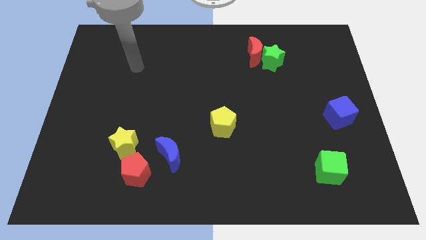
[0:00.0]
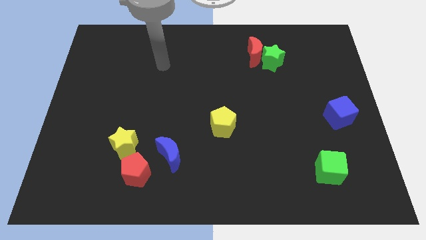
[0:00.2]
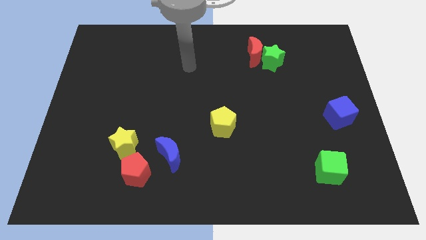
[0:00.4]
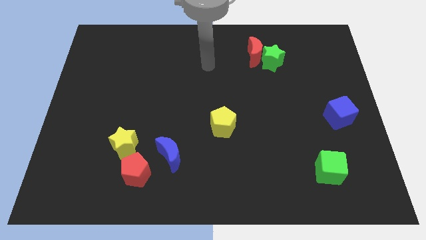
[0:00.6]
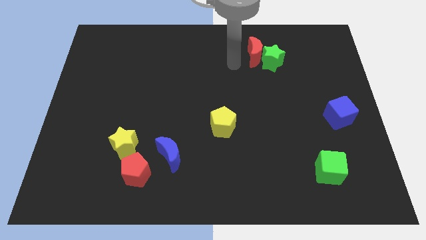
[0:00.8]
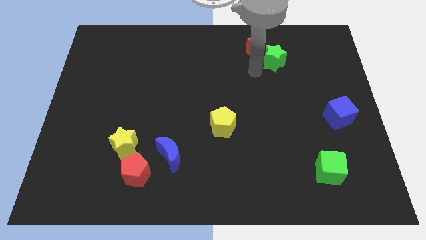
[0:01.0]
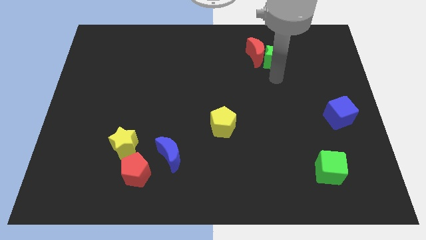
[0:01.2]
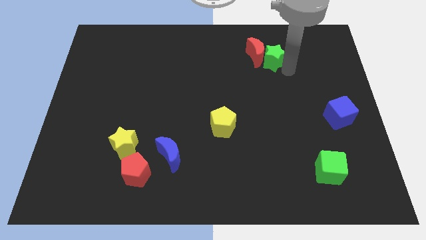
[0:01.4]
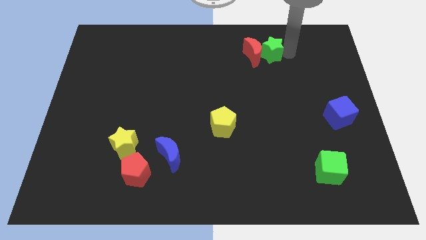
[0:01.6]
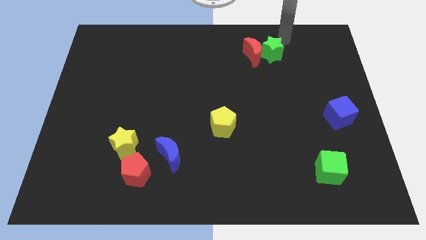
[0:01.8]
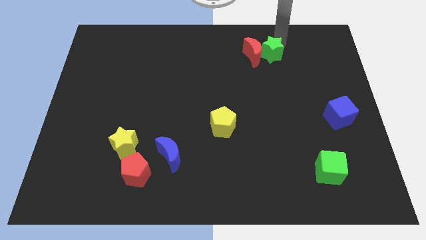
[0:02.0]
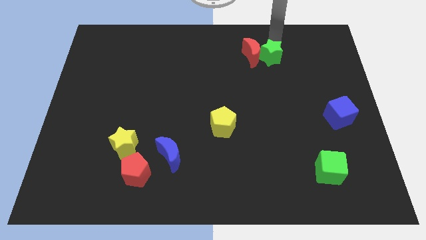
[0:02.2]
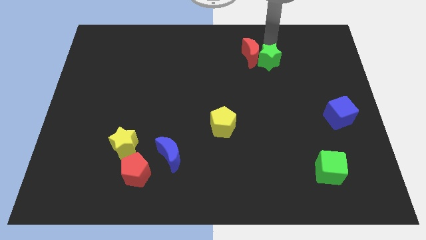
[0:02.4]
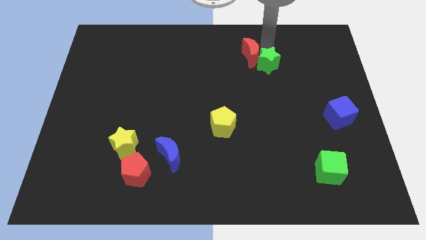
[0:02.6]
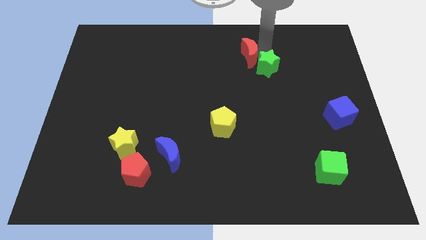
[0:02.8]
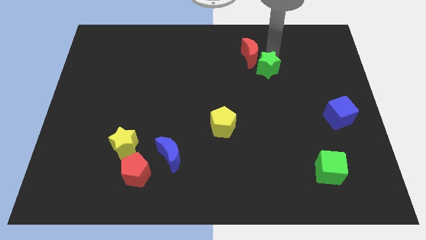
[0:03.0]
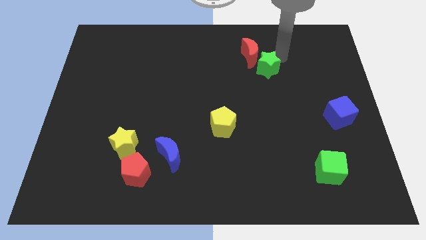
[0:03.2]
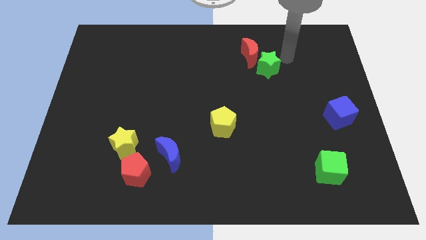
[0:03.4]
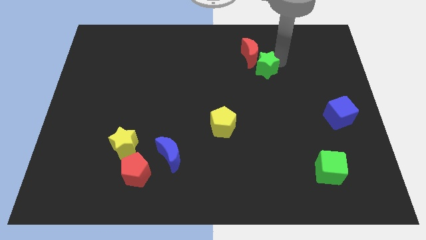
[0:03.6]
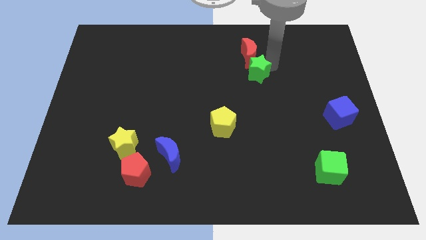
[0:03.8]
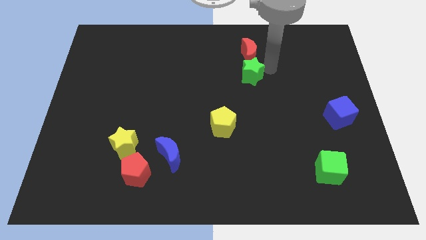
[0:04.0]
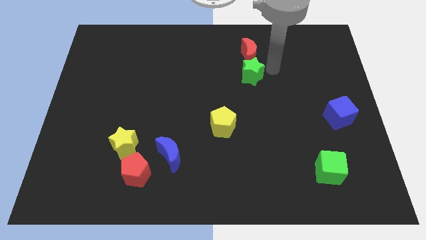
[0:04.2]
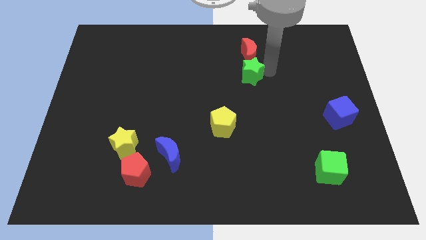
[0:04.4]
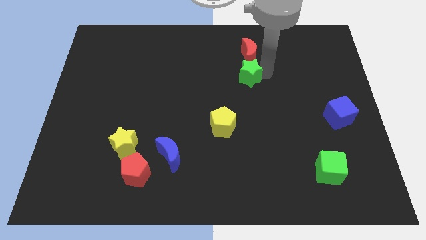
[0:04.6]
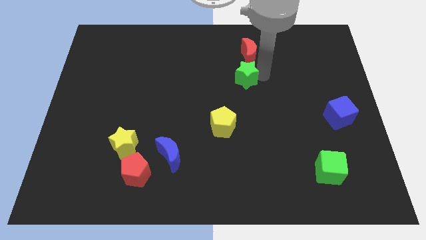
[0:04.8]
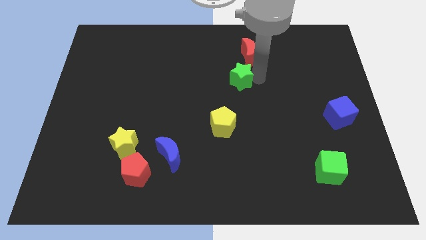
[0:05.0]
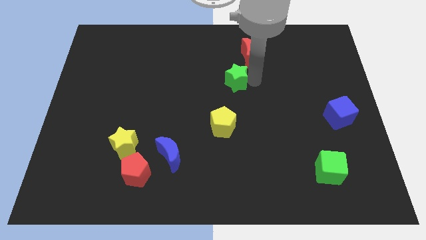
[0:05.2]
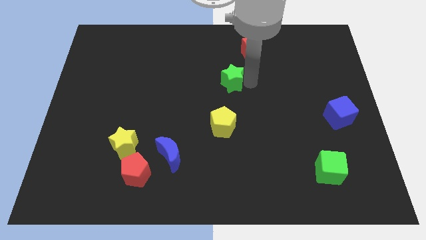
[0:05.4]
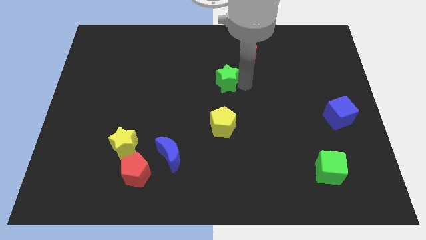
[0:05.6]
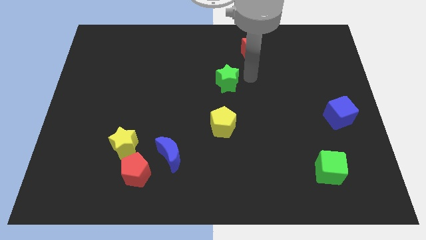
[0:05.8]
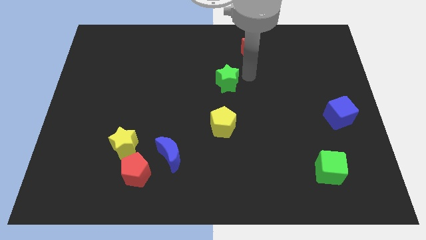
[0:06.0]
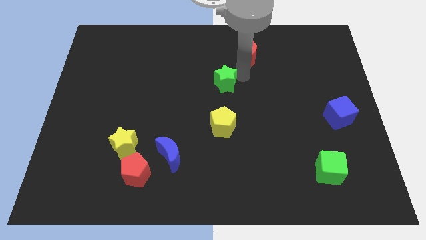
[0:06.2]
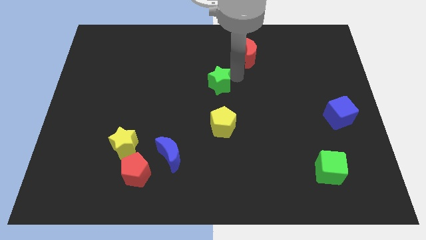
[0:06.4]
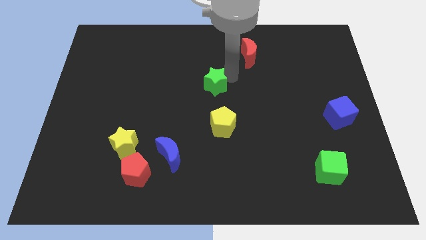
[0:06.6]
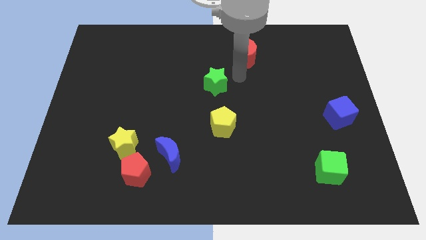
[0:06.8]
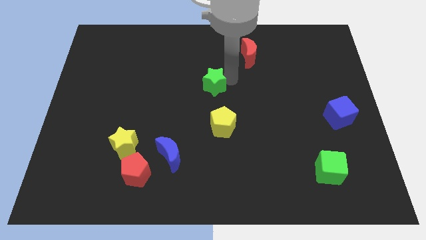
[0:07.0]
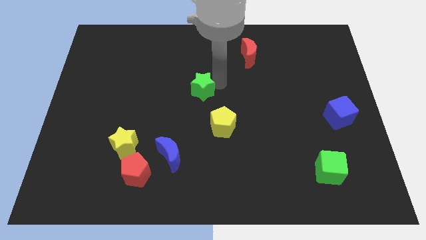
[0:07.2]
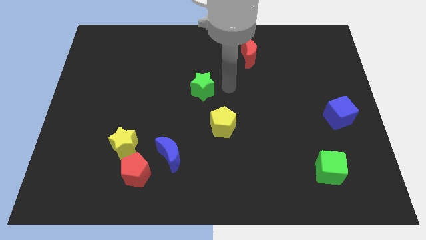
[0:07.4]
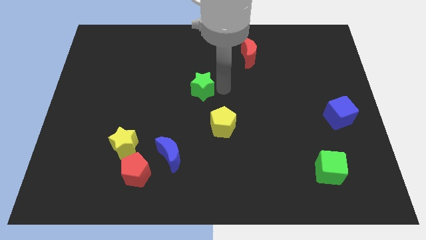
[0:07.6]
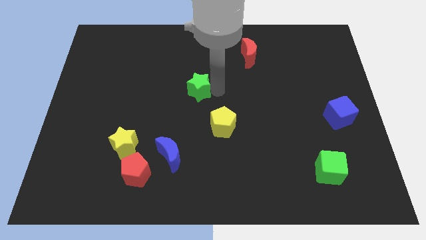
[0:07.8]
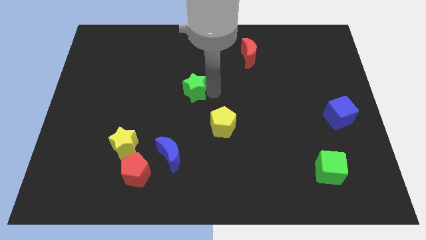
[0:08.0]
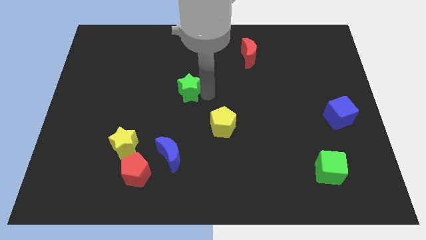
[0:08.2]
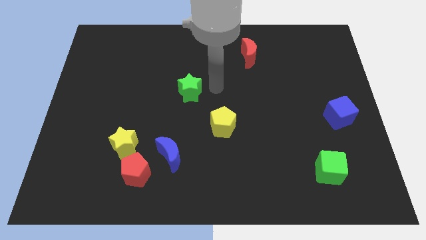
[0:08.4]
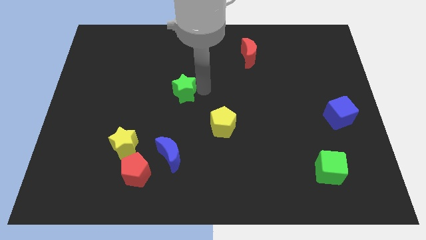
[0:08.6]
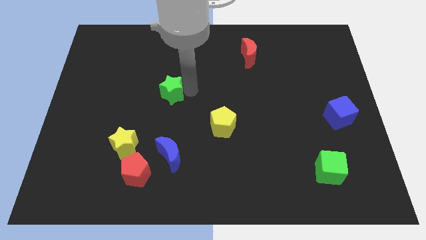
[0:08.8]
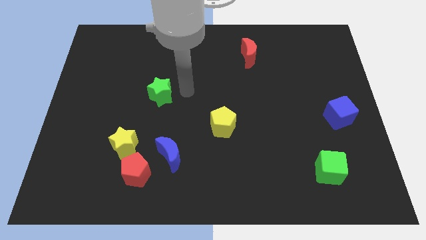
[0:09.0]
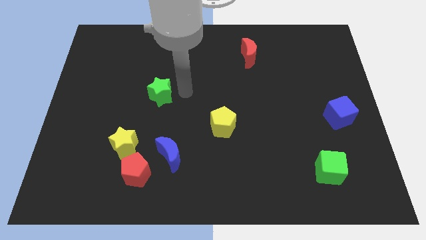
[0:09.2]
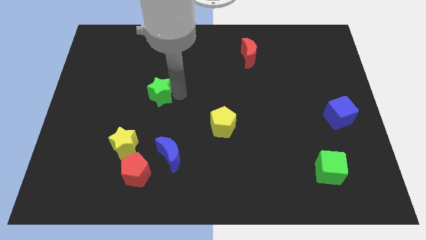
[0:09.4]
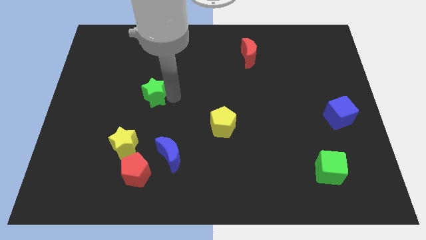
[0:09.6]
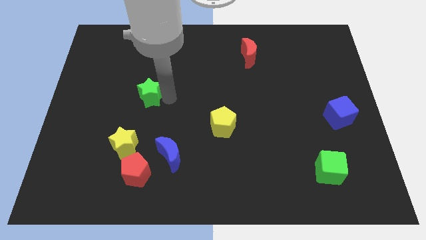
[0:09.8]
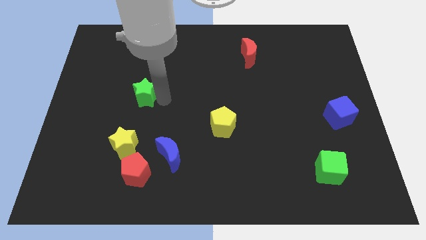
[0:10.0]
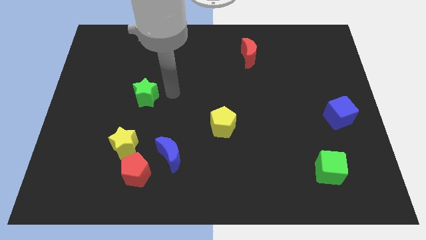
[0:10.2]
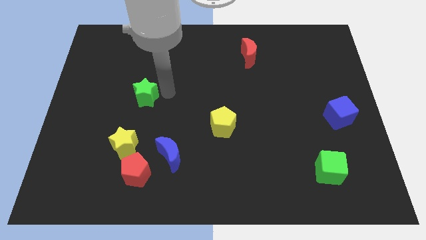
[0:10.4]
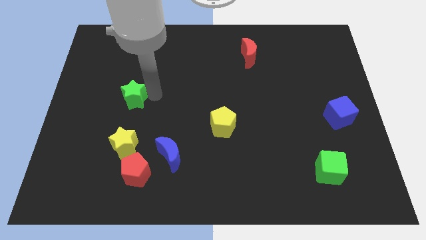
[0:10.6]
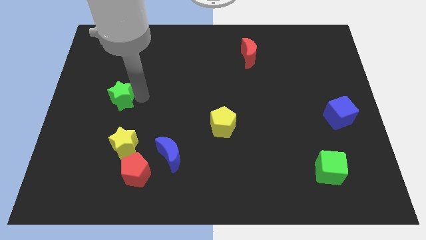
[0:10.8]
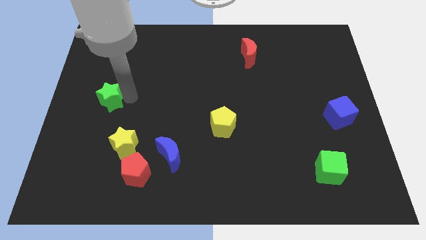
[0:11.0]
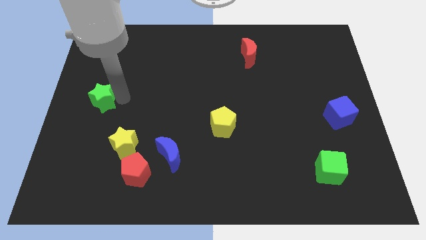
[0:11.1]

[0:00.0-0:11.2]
slide the green star to the left side of the board

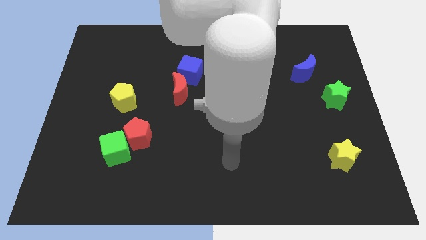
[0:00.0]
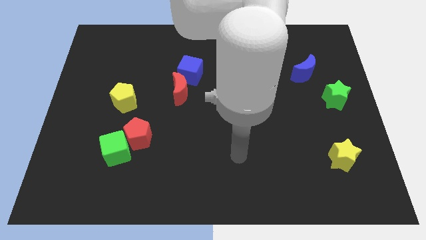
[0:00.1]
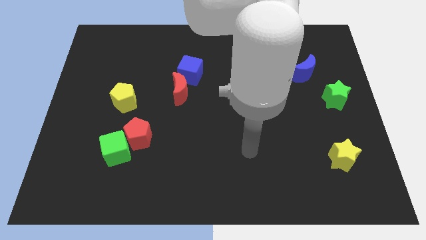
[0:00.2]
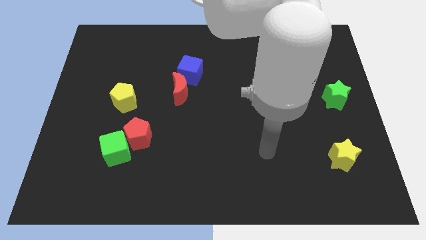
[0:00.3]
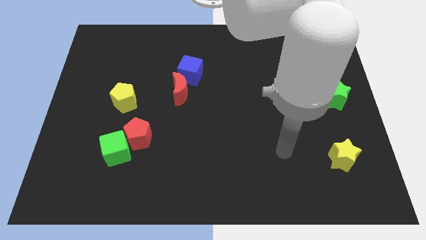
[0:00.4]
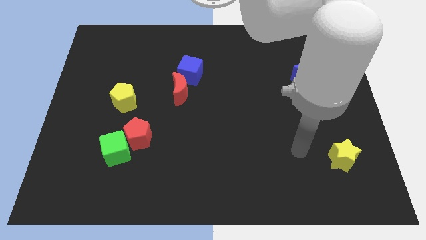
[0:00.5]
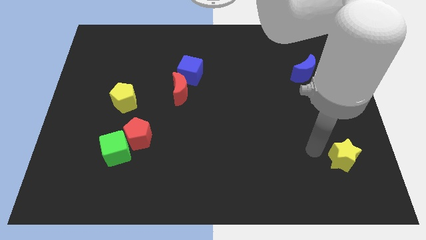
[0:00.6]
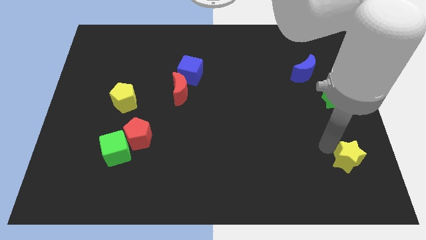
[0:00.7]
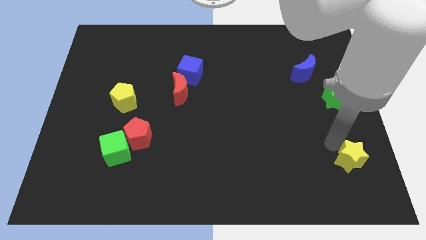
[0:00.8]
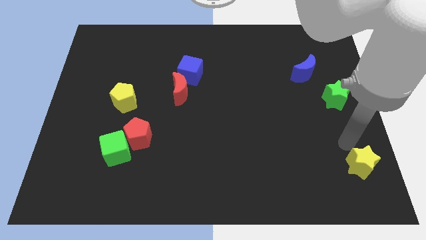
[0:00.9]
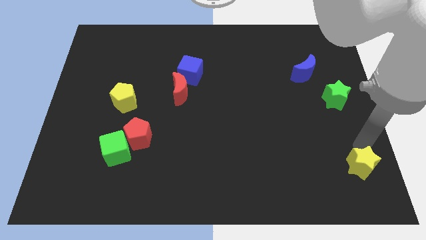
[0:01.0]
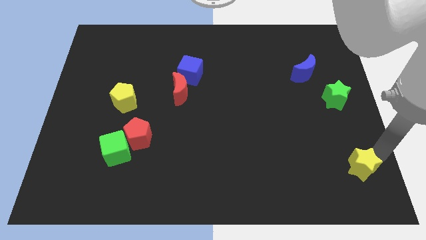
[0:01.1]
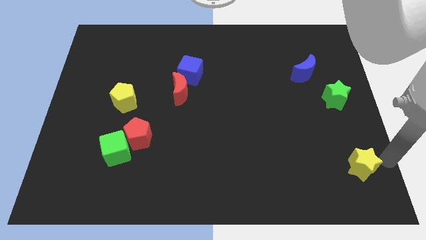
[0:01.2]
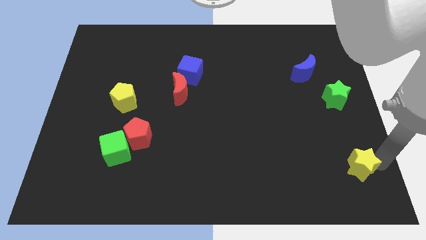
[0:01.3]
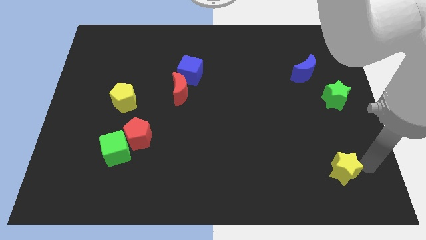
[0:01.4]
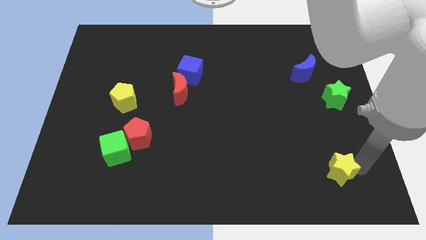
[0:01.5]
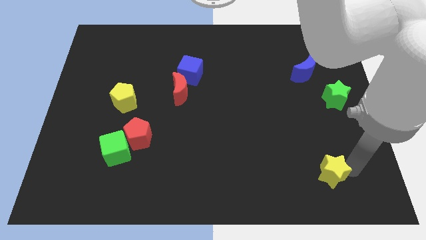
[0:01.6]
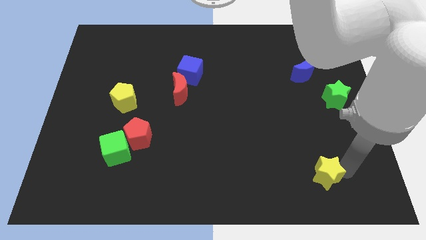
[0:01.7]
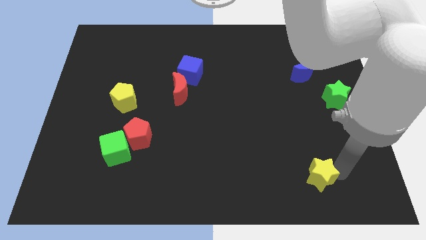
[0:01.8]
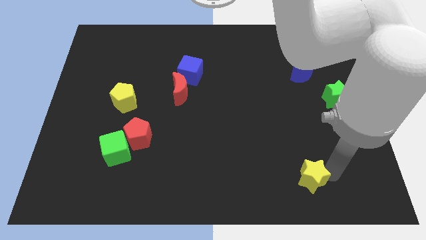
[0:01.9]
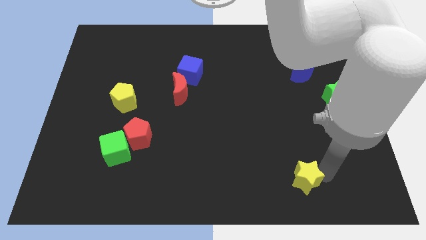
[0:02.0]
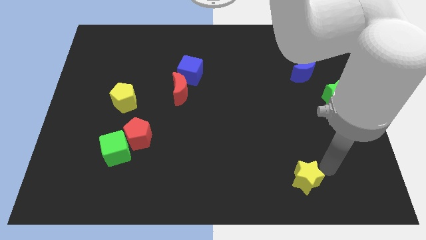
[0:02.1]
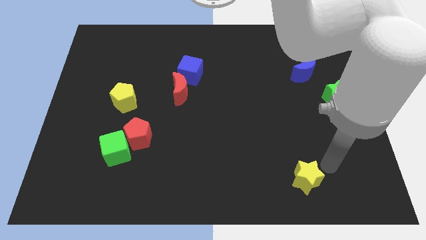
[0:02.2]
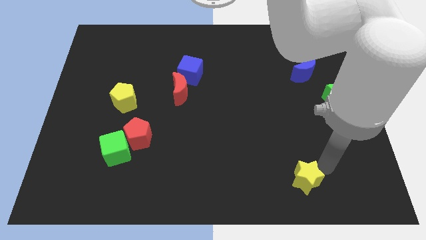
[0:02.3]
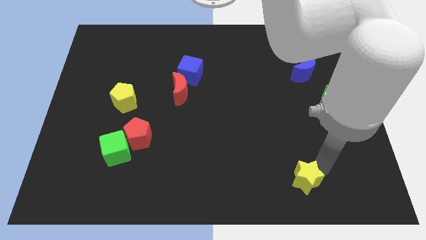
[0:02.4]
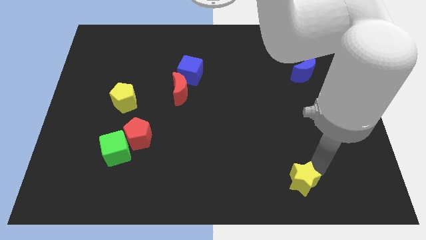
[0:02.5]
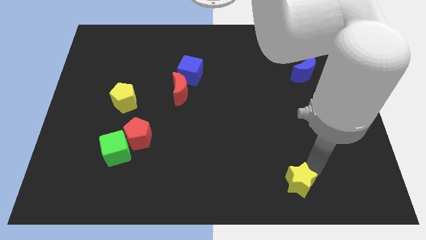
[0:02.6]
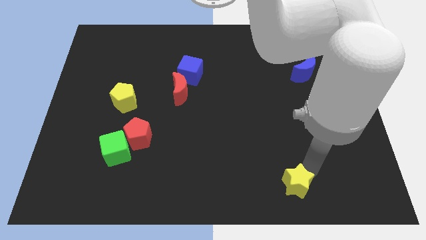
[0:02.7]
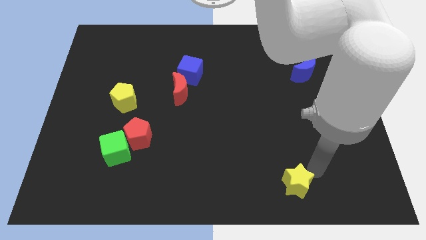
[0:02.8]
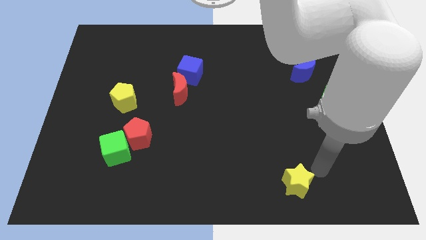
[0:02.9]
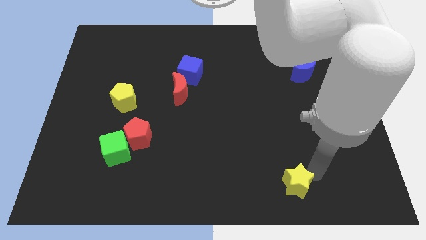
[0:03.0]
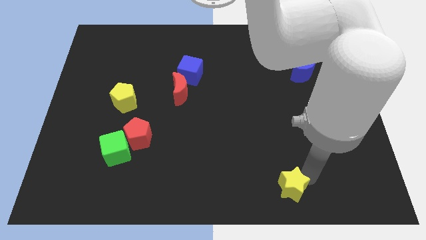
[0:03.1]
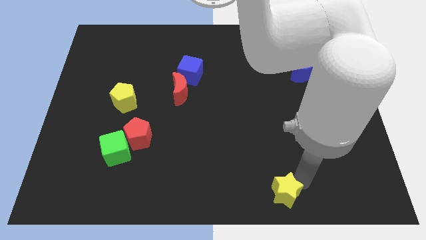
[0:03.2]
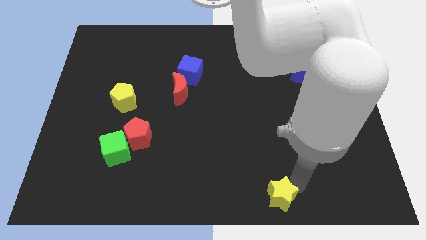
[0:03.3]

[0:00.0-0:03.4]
push the yellow star to the bottom side
